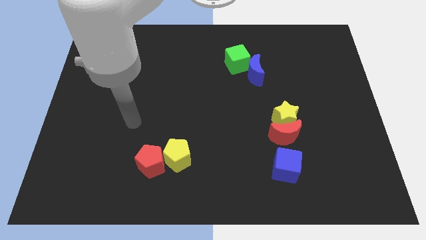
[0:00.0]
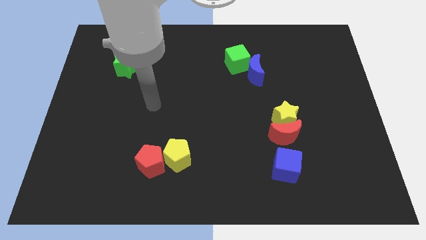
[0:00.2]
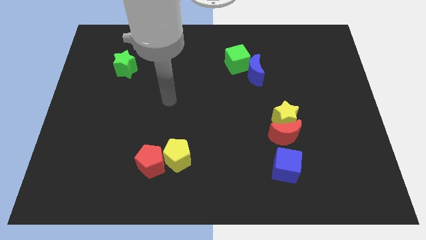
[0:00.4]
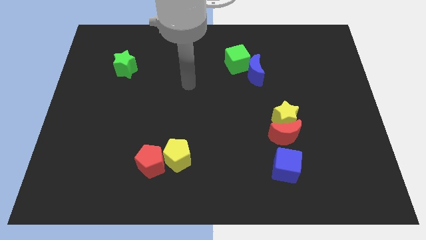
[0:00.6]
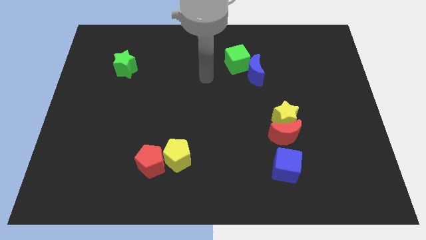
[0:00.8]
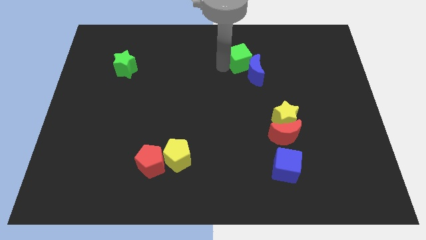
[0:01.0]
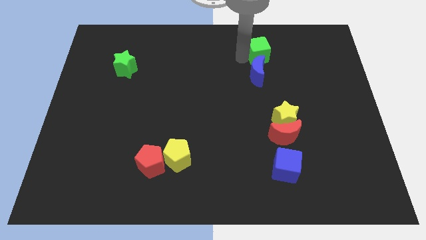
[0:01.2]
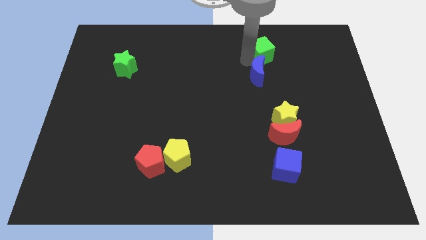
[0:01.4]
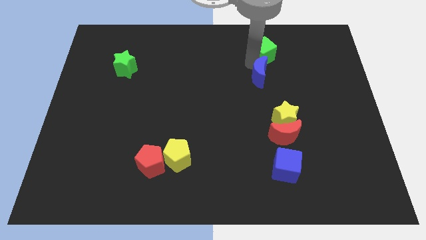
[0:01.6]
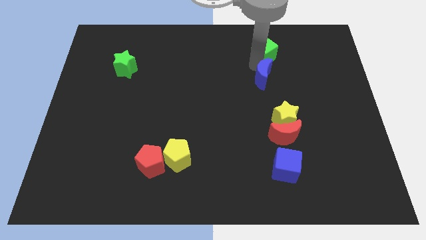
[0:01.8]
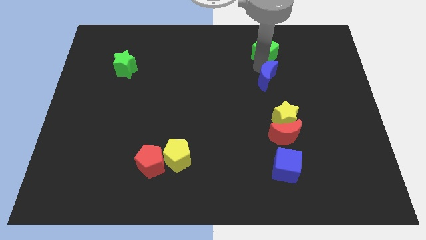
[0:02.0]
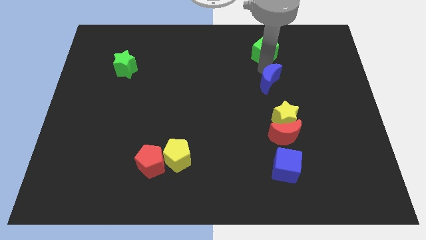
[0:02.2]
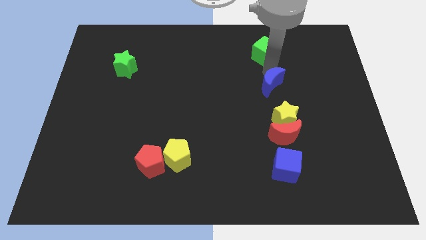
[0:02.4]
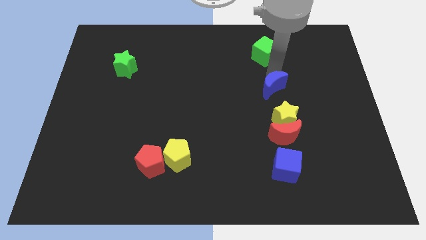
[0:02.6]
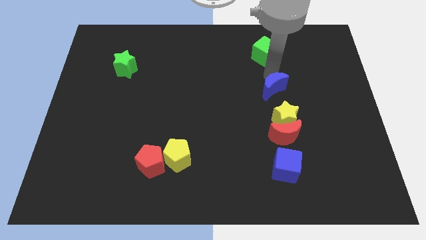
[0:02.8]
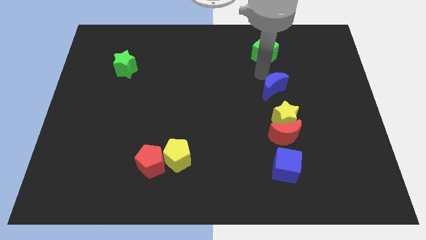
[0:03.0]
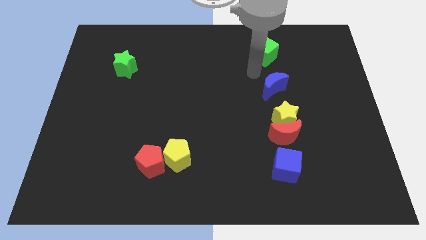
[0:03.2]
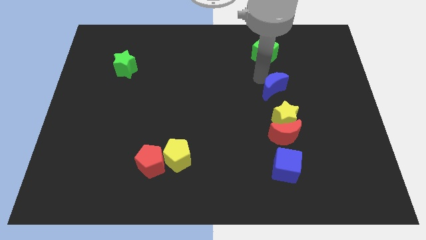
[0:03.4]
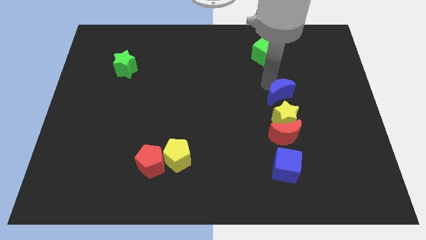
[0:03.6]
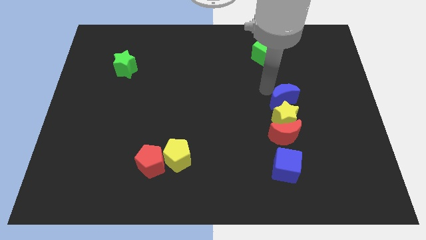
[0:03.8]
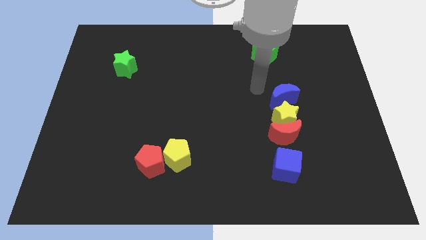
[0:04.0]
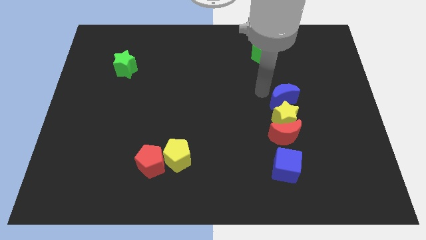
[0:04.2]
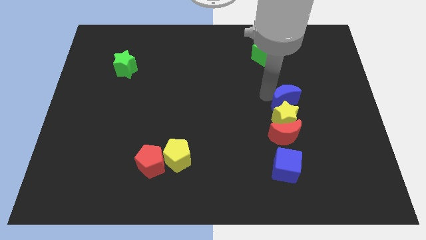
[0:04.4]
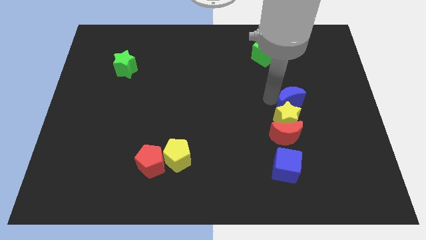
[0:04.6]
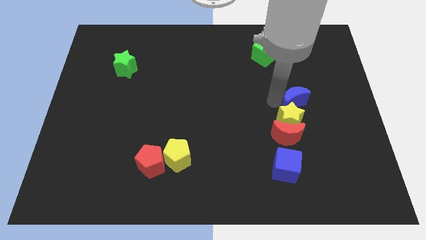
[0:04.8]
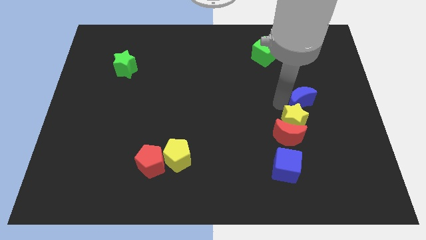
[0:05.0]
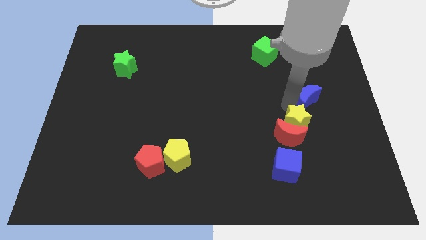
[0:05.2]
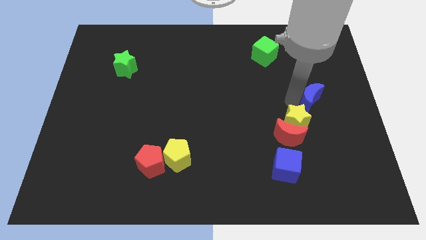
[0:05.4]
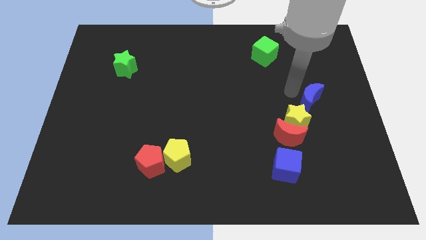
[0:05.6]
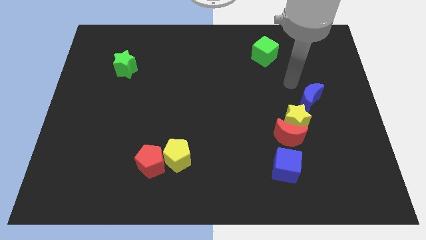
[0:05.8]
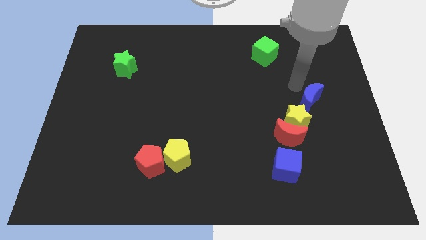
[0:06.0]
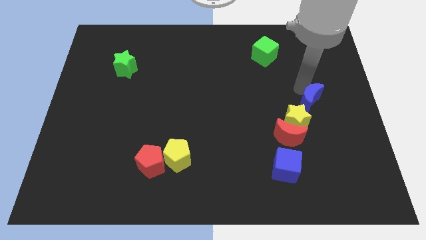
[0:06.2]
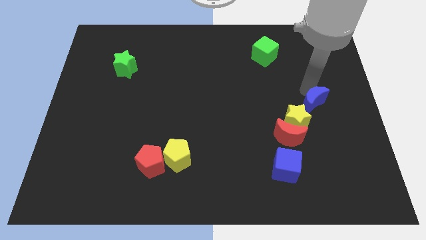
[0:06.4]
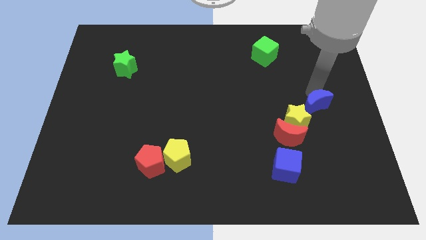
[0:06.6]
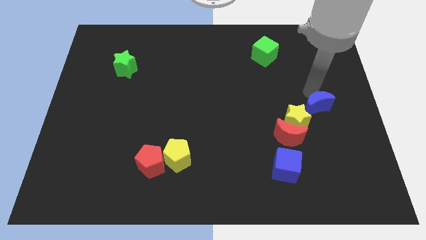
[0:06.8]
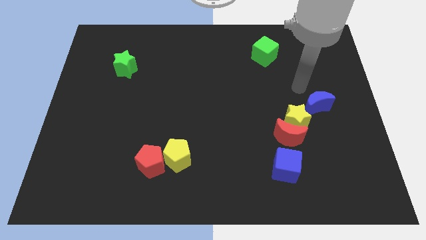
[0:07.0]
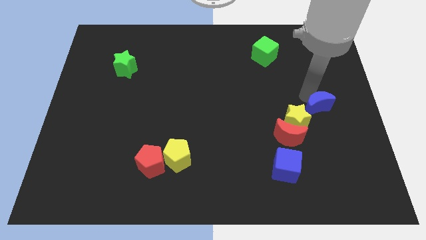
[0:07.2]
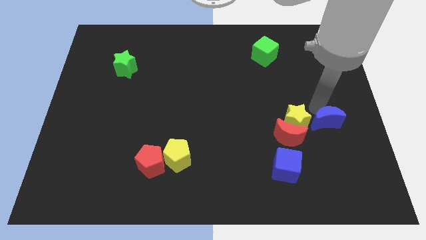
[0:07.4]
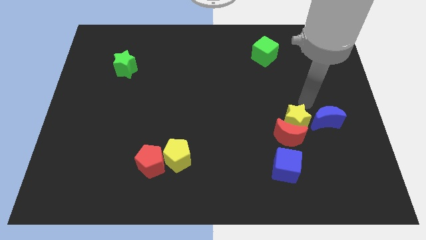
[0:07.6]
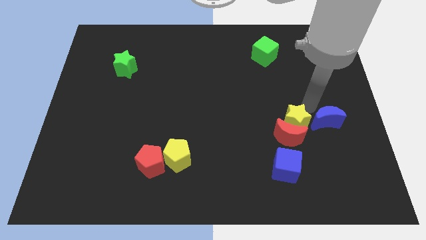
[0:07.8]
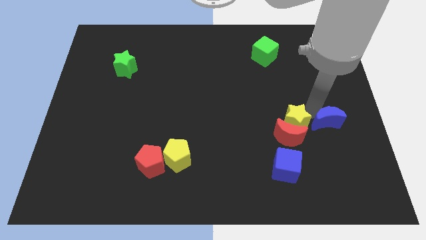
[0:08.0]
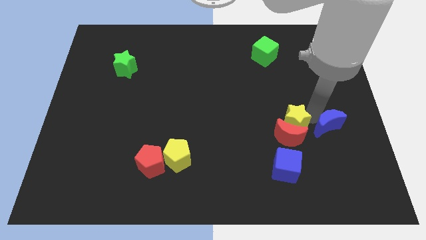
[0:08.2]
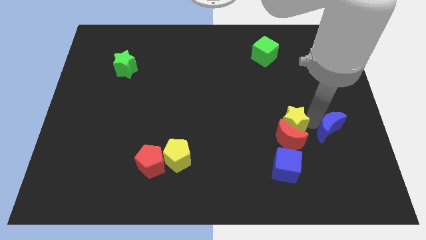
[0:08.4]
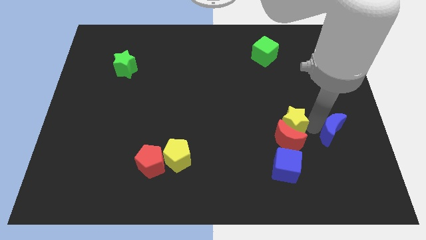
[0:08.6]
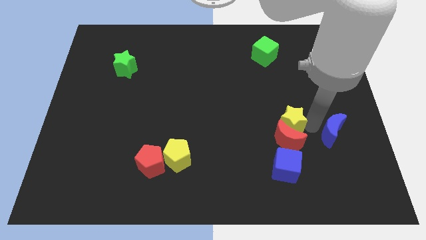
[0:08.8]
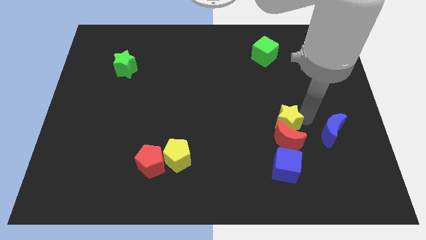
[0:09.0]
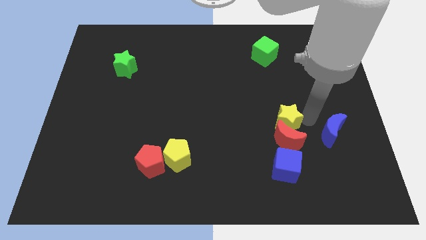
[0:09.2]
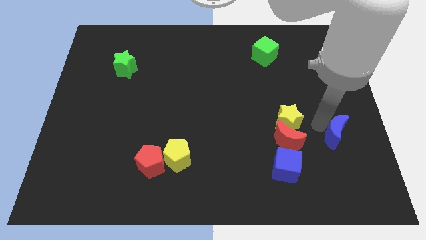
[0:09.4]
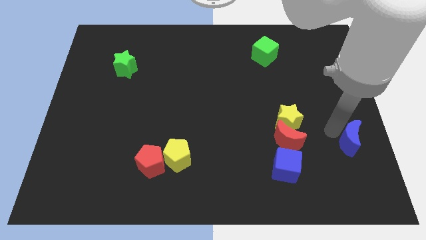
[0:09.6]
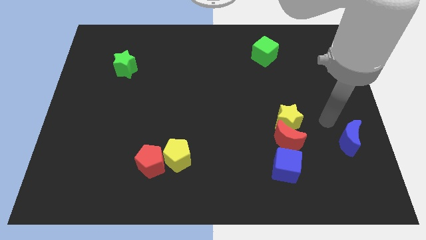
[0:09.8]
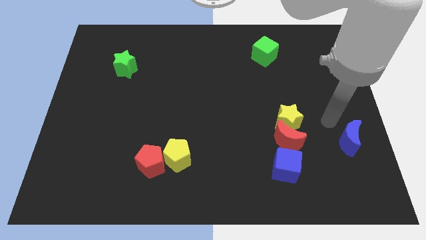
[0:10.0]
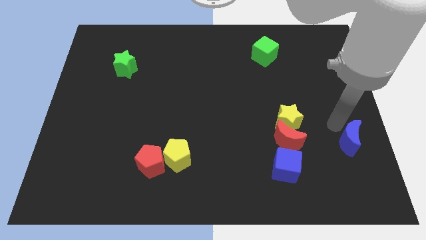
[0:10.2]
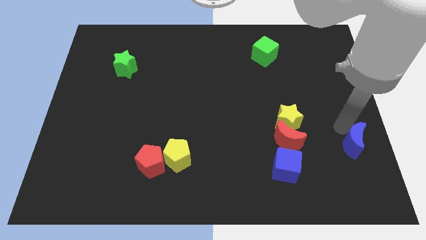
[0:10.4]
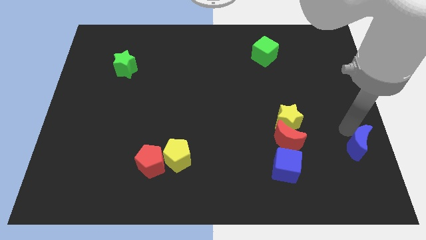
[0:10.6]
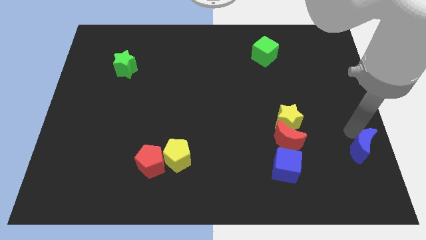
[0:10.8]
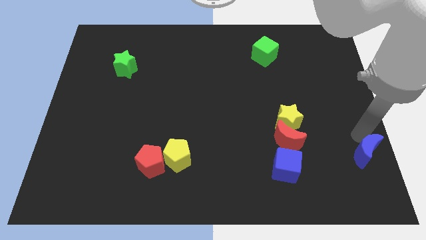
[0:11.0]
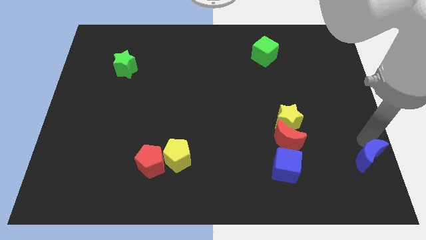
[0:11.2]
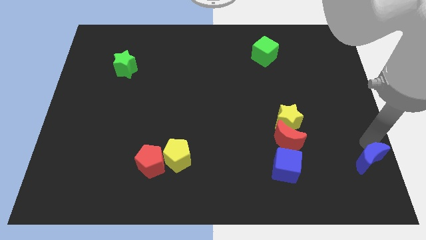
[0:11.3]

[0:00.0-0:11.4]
put the blue moon to the lower right corner
